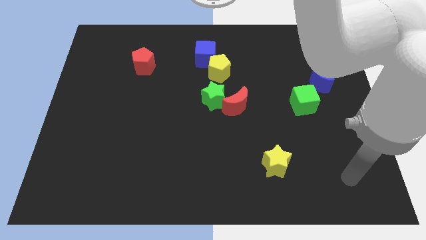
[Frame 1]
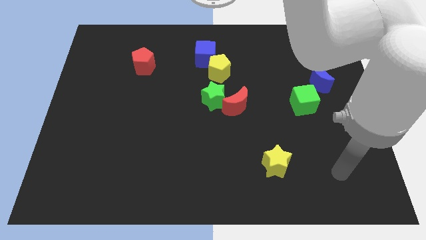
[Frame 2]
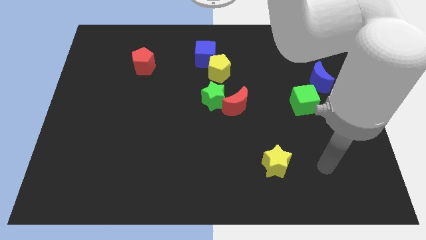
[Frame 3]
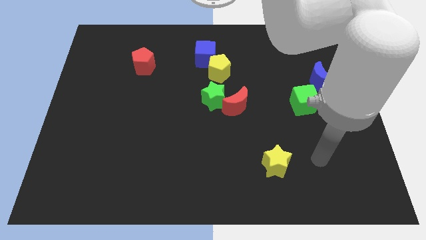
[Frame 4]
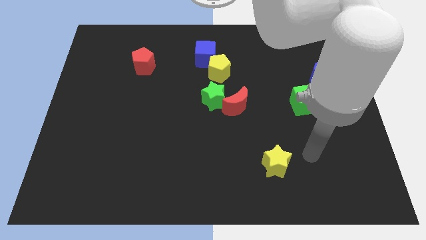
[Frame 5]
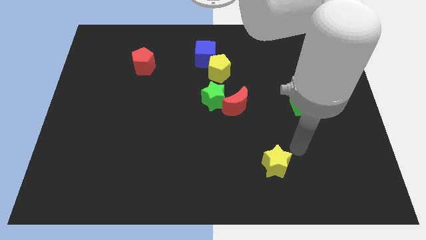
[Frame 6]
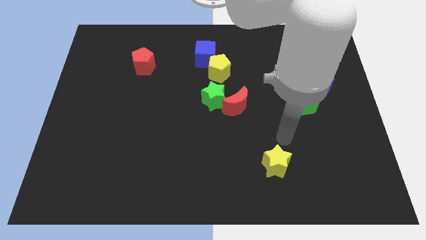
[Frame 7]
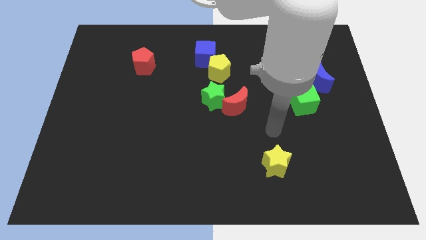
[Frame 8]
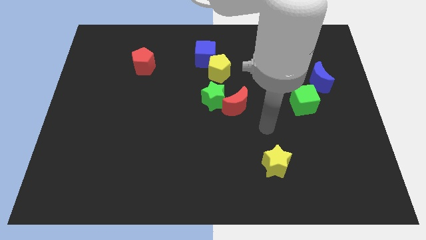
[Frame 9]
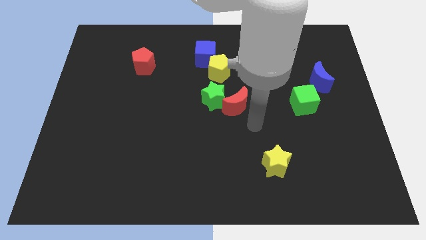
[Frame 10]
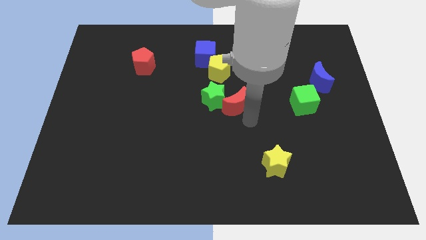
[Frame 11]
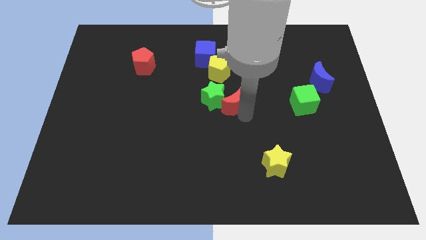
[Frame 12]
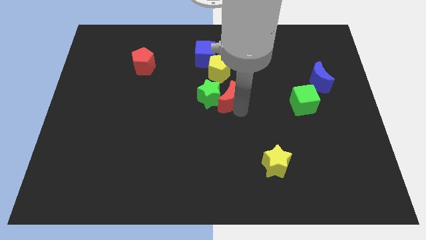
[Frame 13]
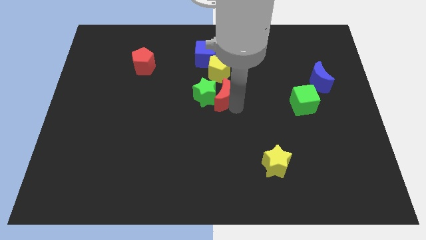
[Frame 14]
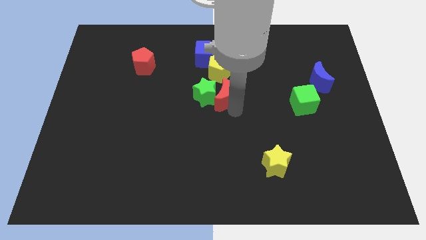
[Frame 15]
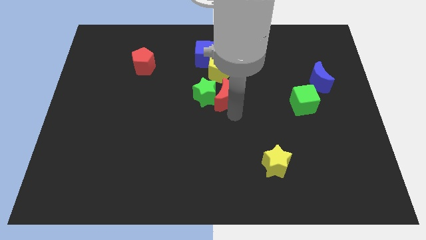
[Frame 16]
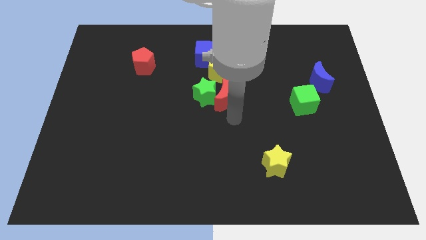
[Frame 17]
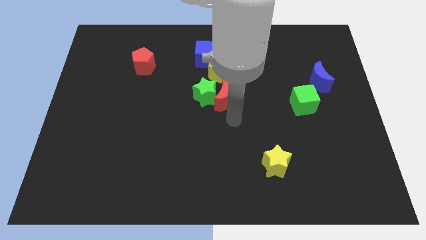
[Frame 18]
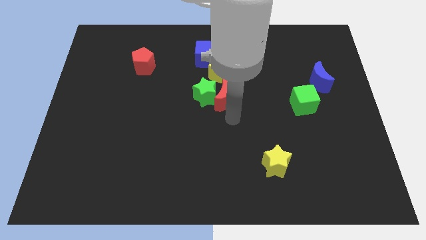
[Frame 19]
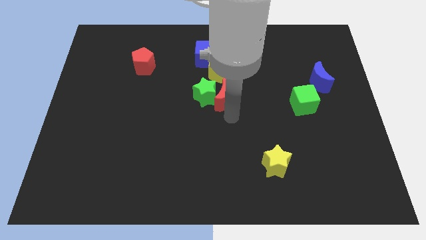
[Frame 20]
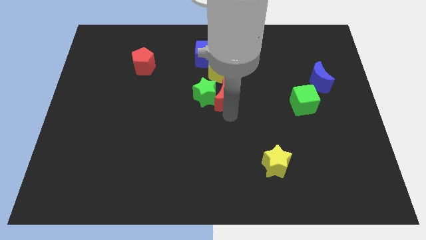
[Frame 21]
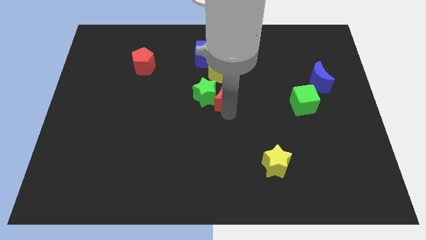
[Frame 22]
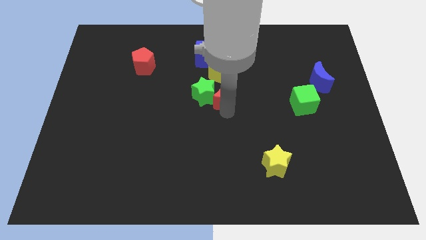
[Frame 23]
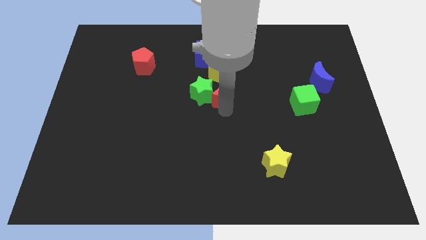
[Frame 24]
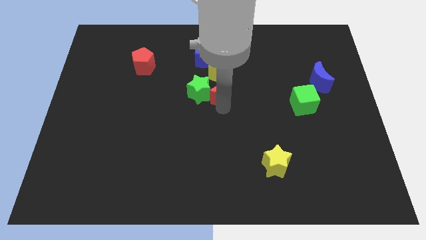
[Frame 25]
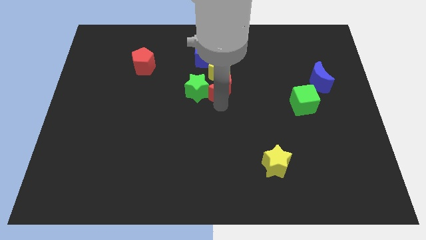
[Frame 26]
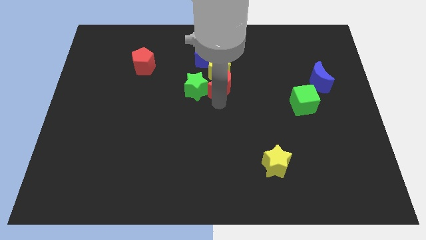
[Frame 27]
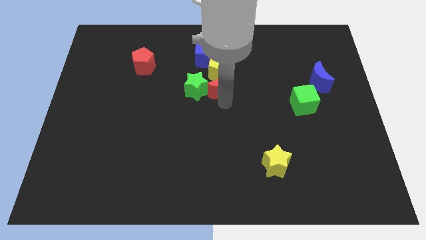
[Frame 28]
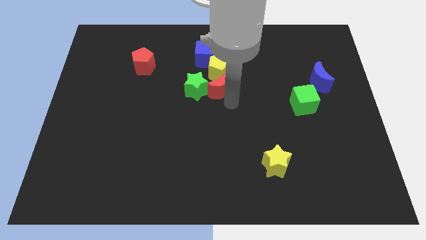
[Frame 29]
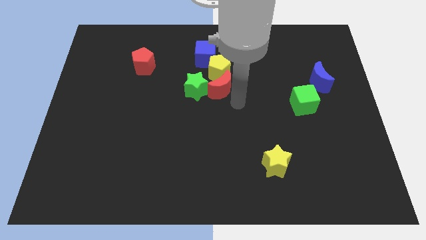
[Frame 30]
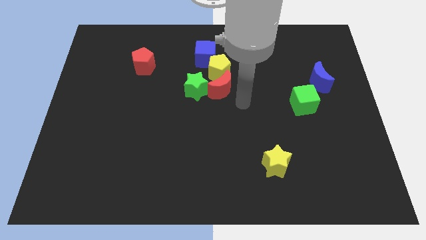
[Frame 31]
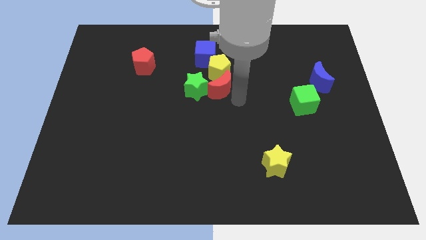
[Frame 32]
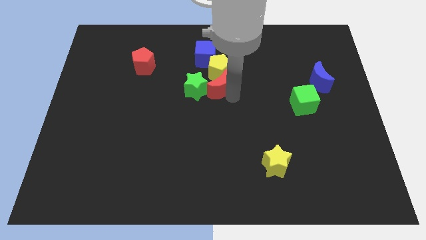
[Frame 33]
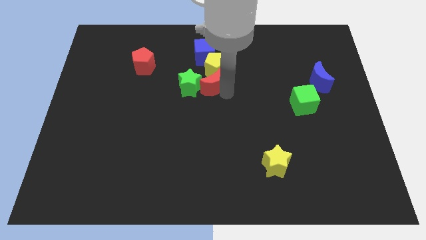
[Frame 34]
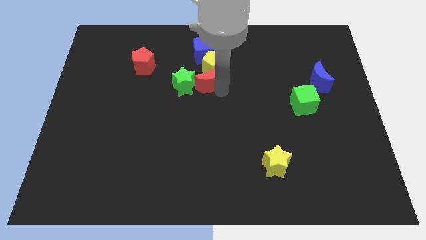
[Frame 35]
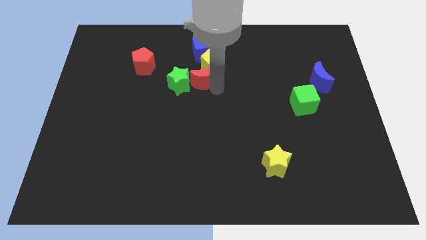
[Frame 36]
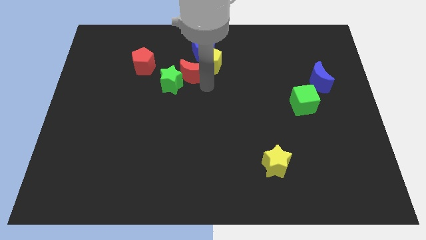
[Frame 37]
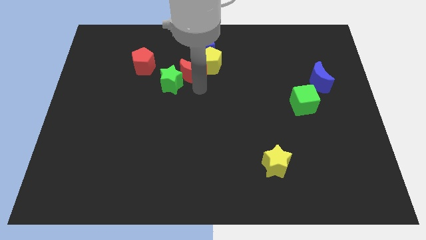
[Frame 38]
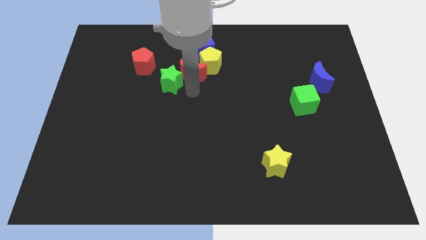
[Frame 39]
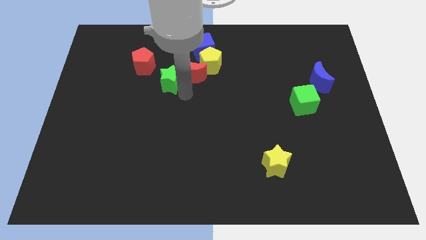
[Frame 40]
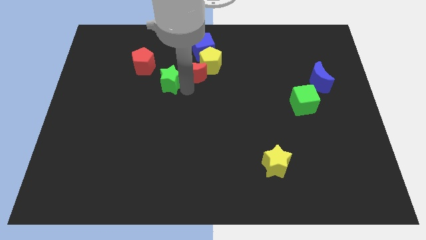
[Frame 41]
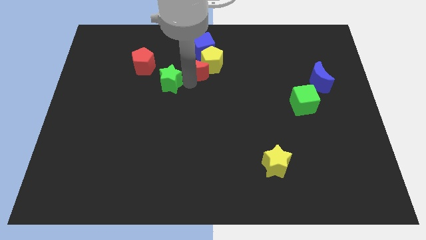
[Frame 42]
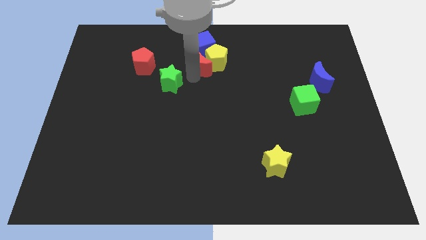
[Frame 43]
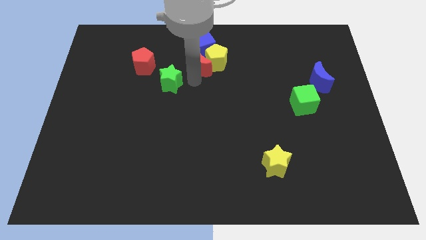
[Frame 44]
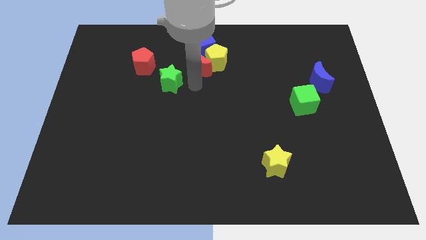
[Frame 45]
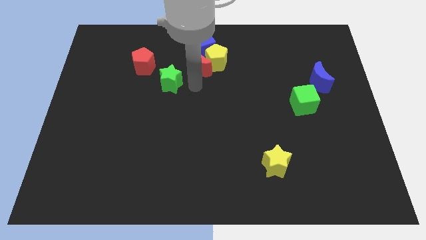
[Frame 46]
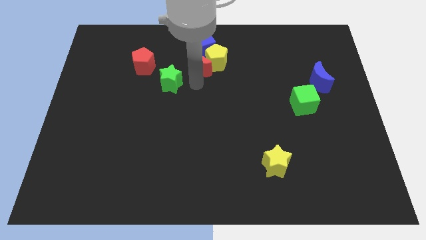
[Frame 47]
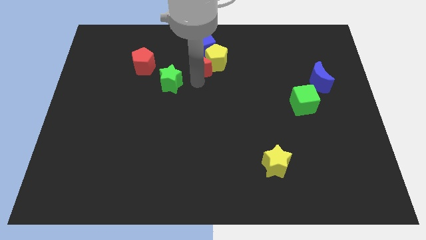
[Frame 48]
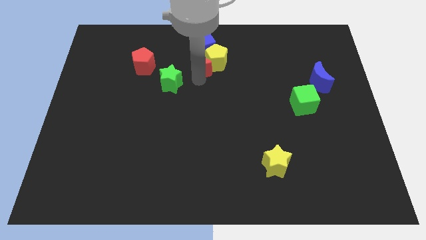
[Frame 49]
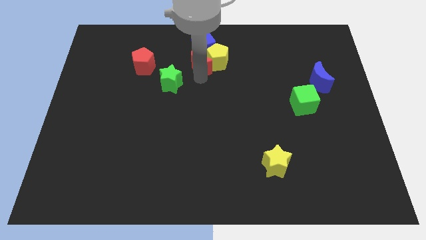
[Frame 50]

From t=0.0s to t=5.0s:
put the red moon close to the blue cube

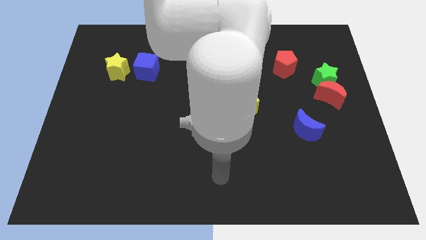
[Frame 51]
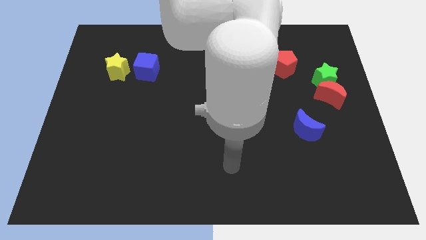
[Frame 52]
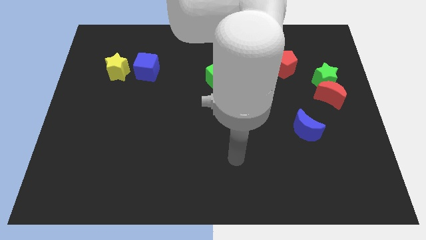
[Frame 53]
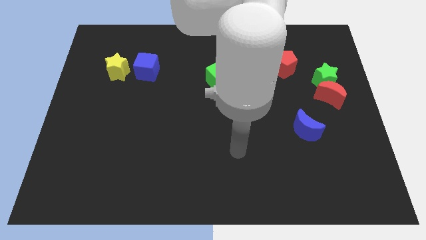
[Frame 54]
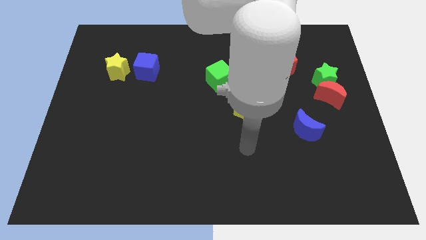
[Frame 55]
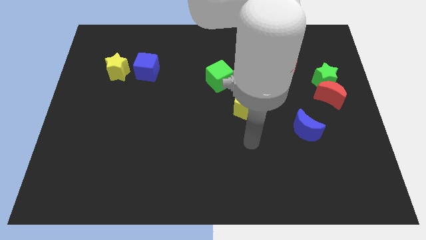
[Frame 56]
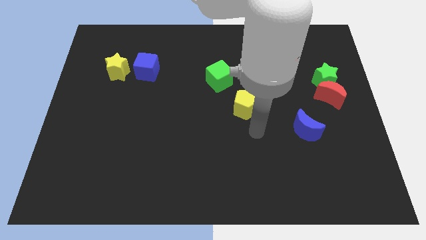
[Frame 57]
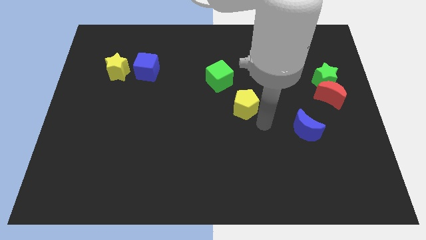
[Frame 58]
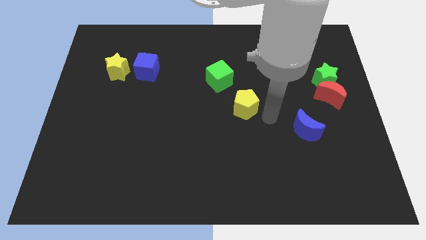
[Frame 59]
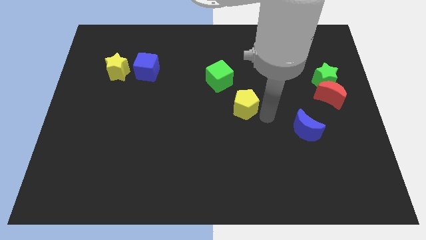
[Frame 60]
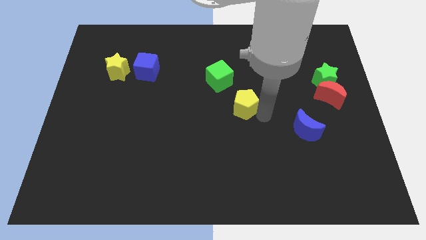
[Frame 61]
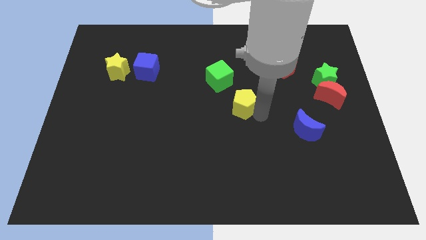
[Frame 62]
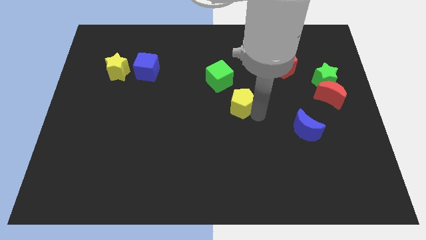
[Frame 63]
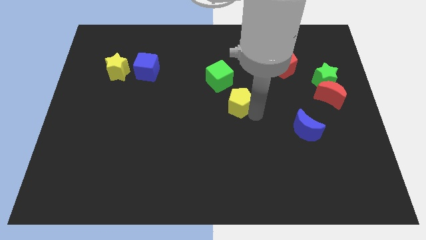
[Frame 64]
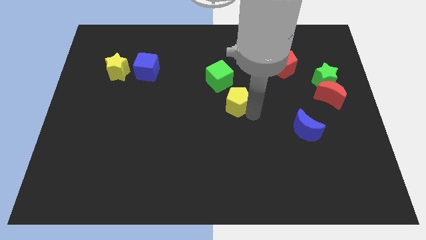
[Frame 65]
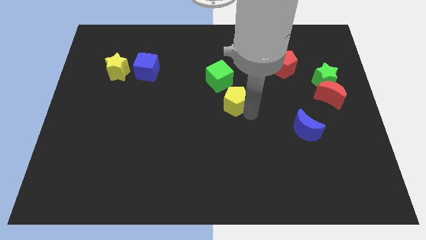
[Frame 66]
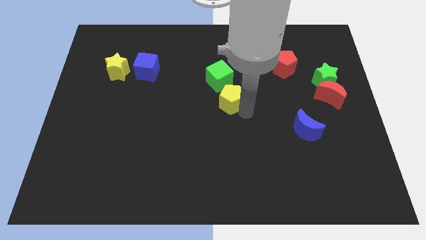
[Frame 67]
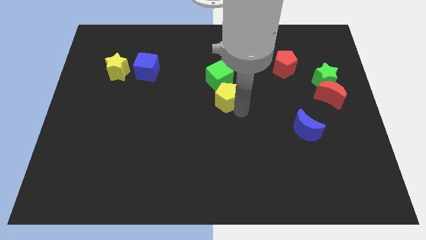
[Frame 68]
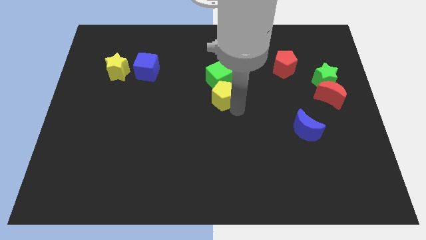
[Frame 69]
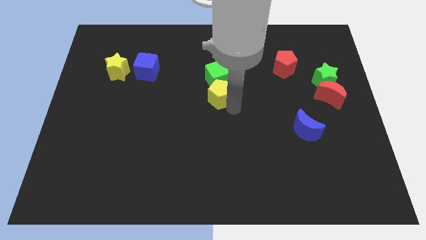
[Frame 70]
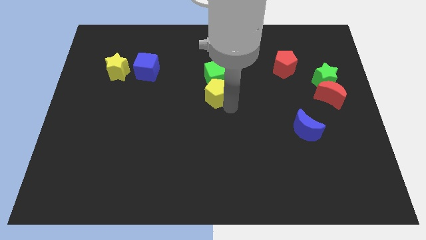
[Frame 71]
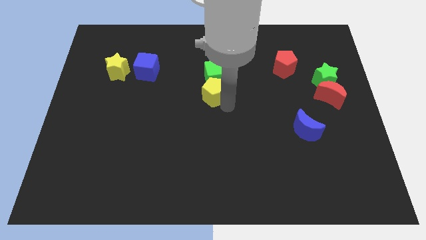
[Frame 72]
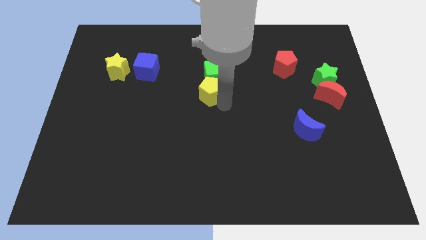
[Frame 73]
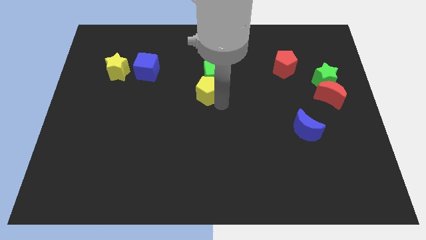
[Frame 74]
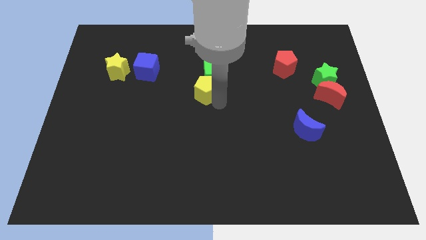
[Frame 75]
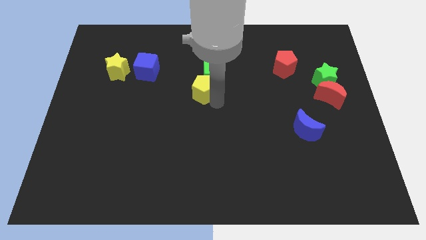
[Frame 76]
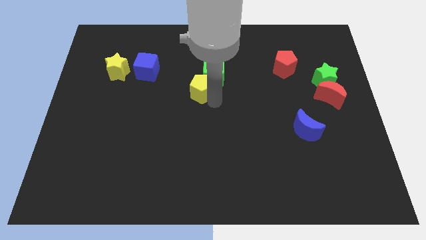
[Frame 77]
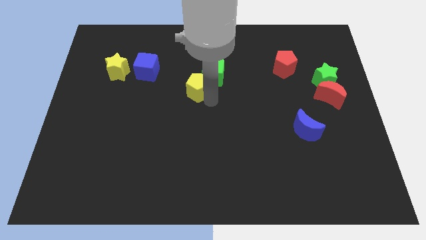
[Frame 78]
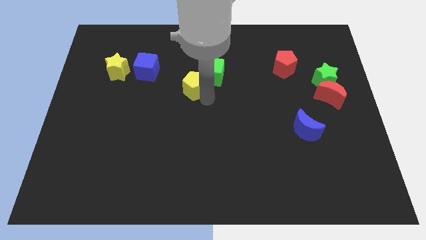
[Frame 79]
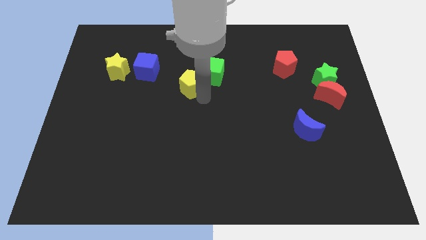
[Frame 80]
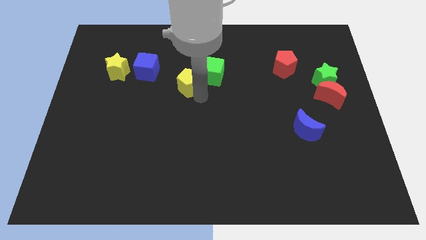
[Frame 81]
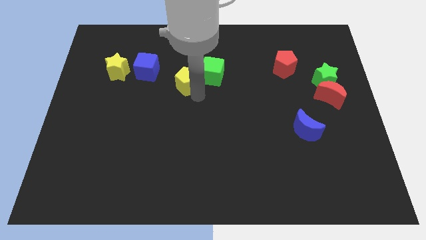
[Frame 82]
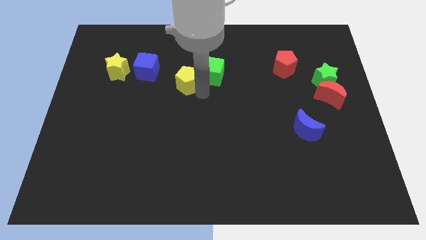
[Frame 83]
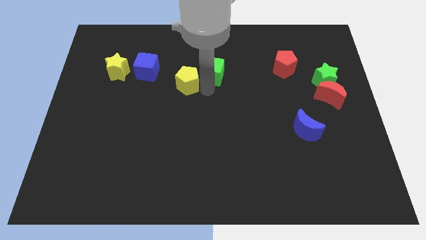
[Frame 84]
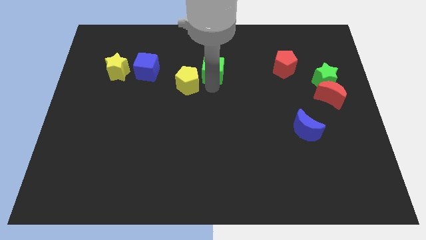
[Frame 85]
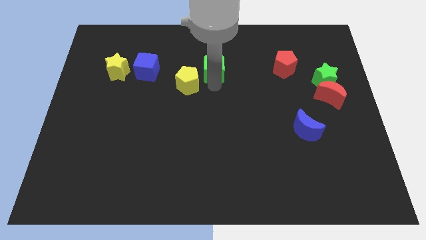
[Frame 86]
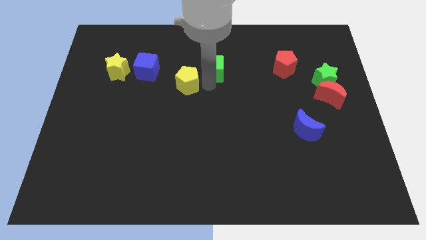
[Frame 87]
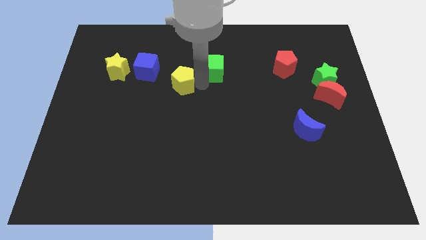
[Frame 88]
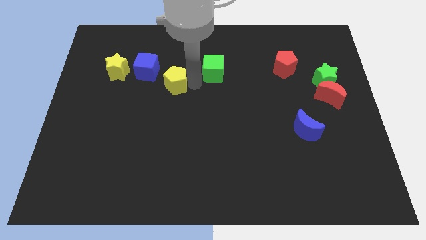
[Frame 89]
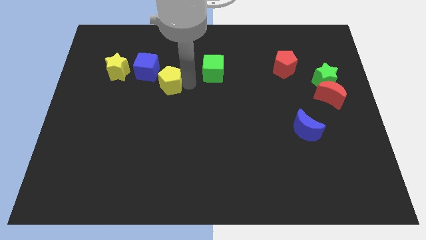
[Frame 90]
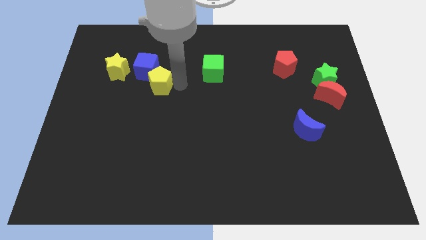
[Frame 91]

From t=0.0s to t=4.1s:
slide the yellow pentagon close to the blue cube
